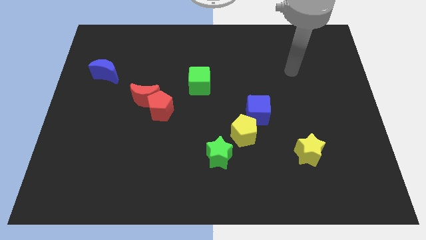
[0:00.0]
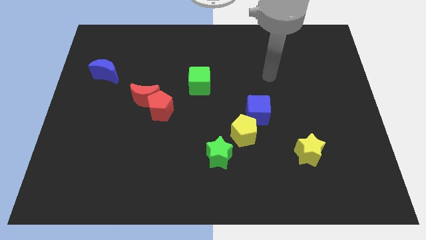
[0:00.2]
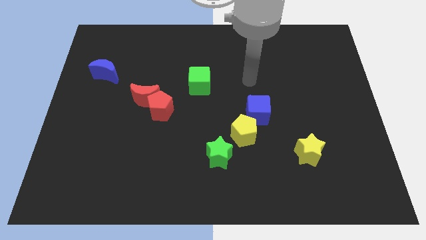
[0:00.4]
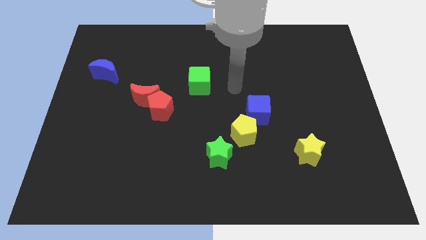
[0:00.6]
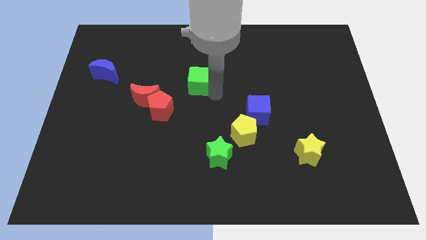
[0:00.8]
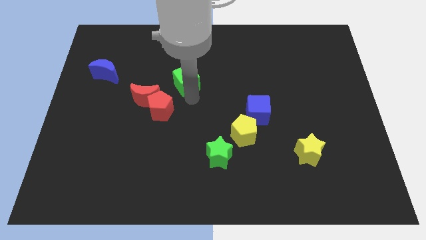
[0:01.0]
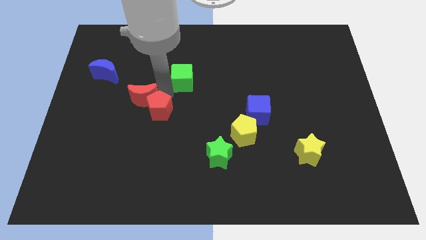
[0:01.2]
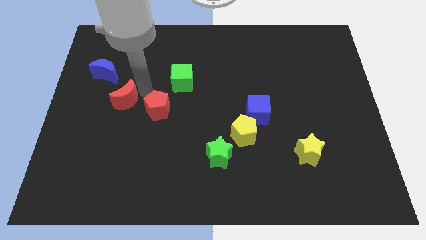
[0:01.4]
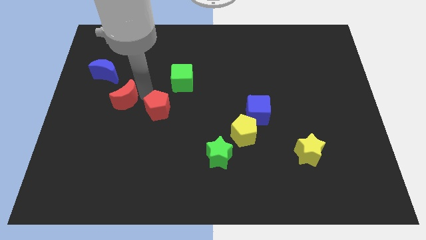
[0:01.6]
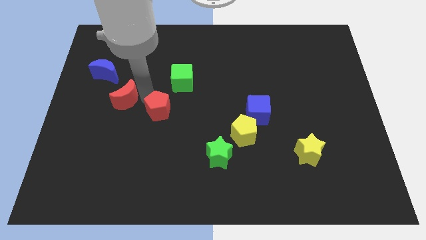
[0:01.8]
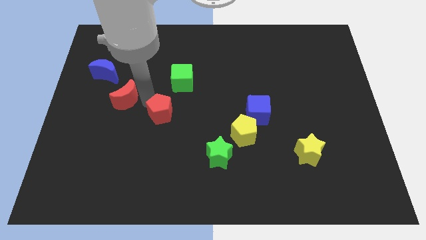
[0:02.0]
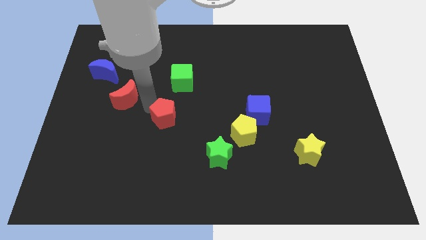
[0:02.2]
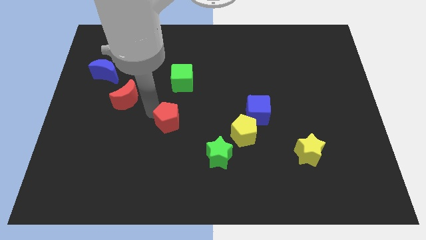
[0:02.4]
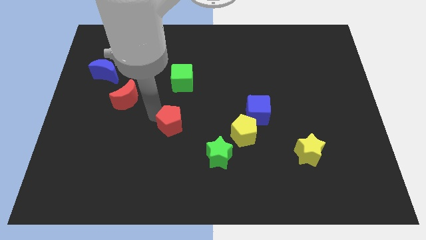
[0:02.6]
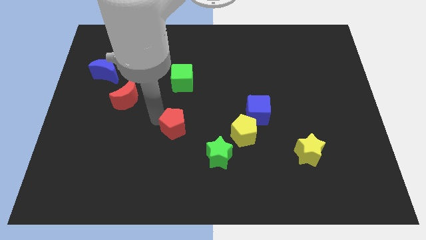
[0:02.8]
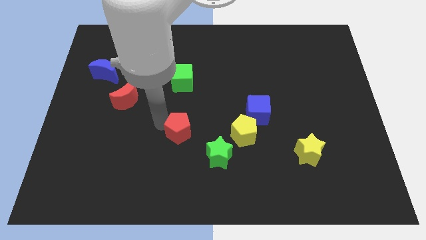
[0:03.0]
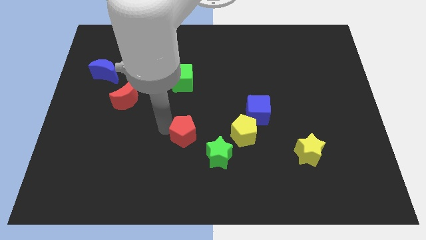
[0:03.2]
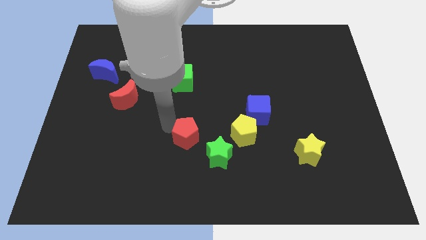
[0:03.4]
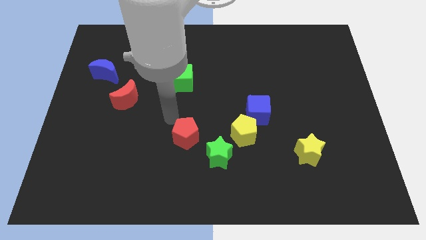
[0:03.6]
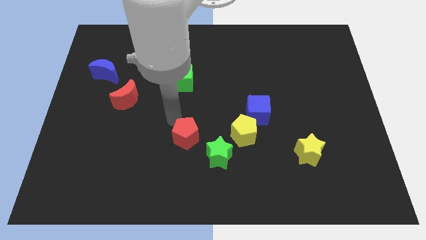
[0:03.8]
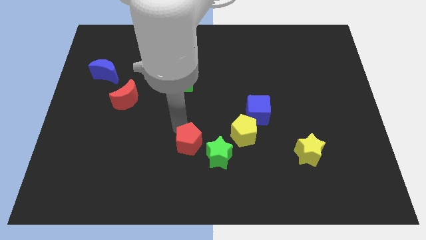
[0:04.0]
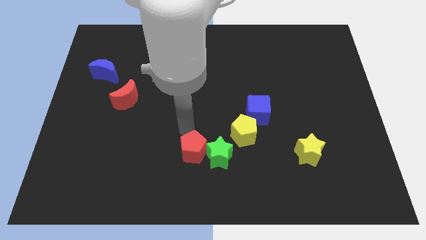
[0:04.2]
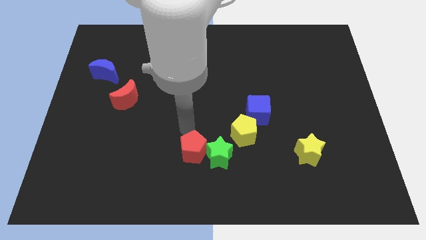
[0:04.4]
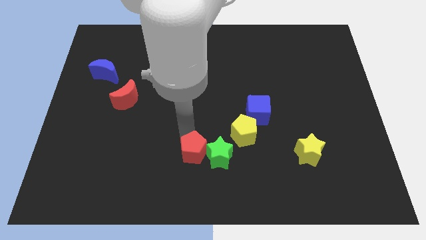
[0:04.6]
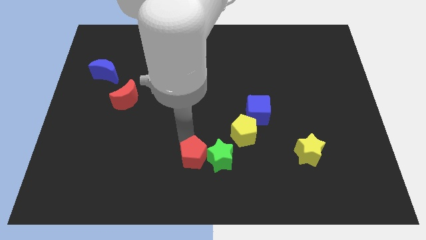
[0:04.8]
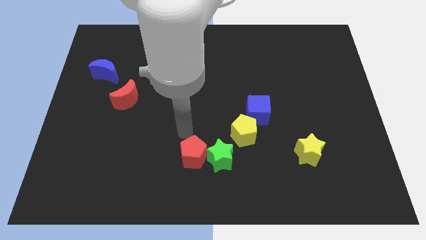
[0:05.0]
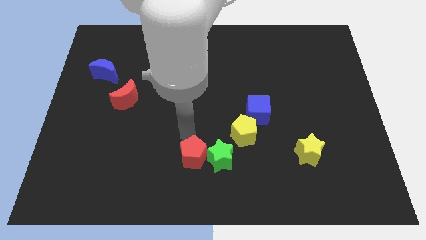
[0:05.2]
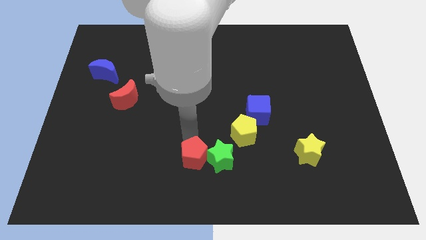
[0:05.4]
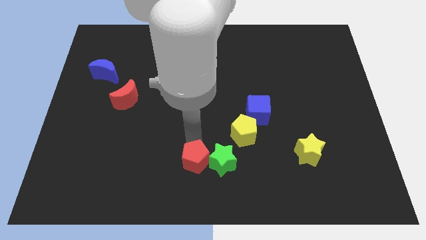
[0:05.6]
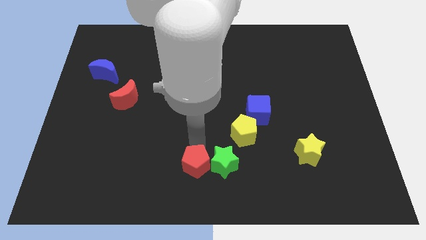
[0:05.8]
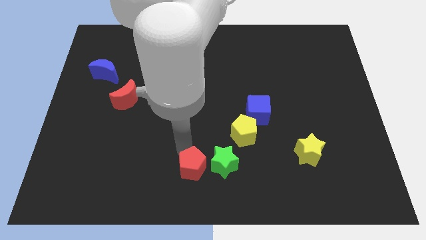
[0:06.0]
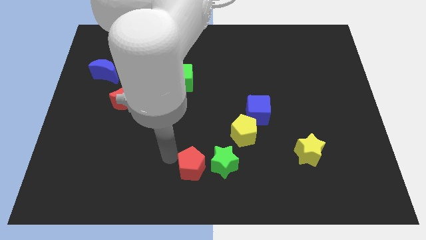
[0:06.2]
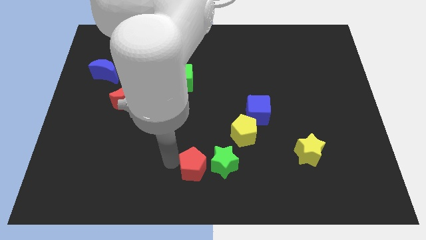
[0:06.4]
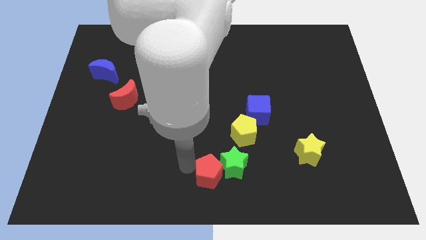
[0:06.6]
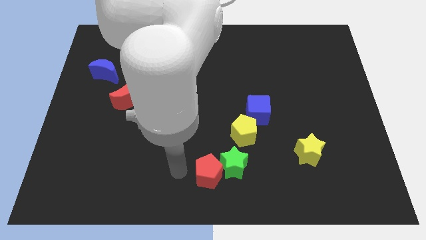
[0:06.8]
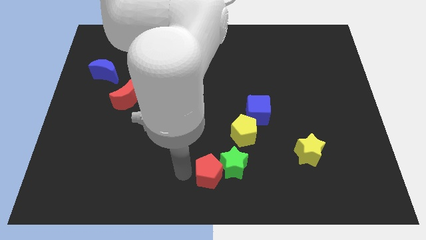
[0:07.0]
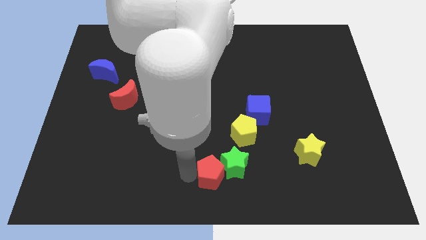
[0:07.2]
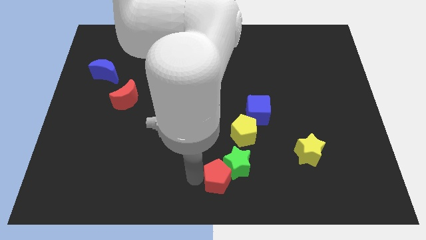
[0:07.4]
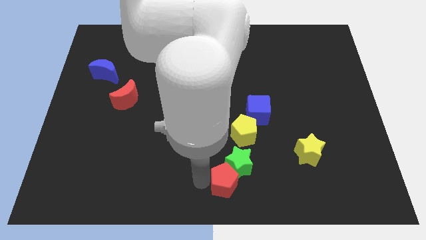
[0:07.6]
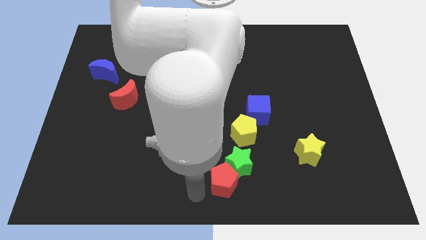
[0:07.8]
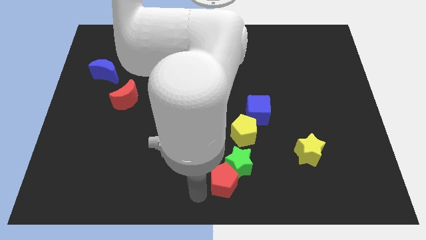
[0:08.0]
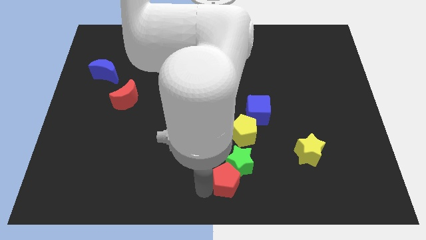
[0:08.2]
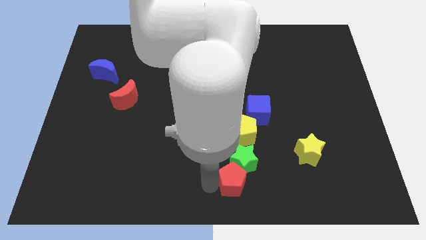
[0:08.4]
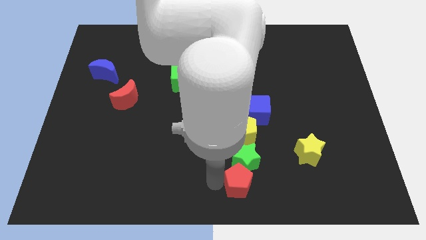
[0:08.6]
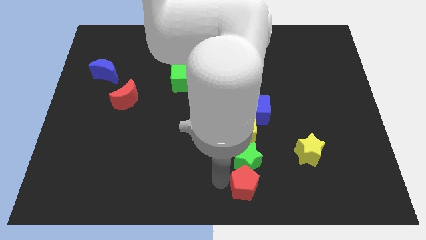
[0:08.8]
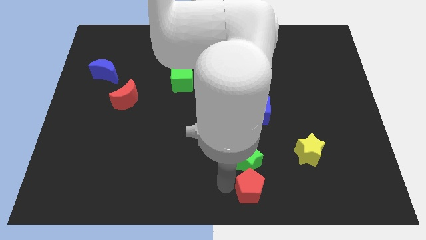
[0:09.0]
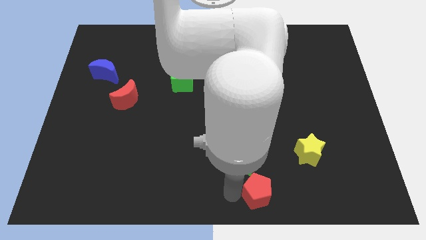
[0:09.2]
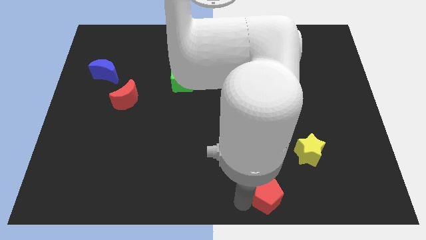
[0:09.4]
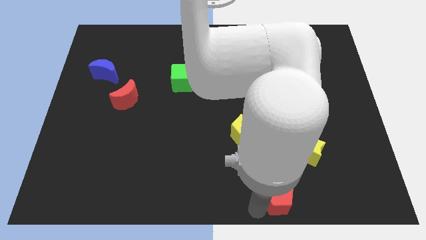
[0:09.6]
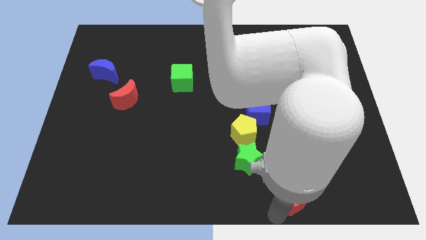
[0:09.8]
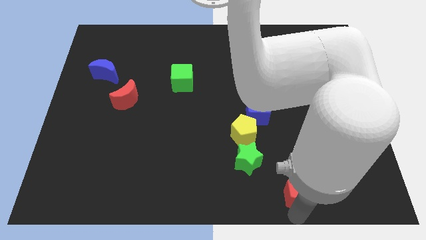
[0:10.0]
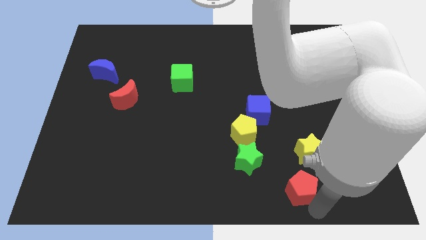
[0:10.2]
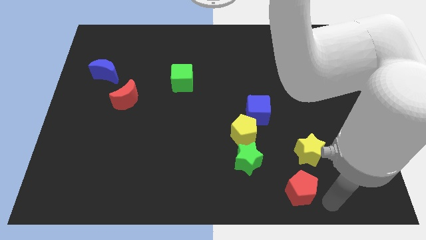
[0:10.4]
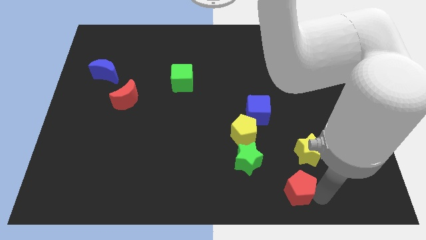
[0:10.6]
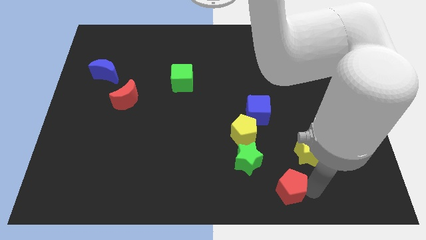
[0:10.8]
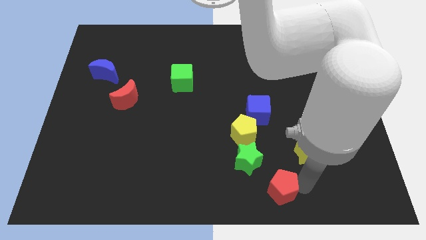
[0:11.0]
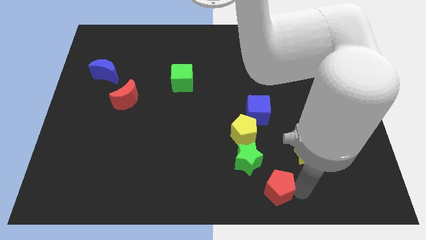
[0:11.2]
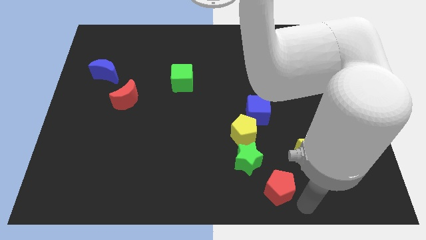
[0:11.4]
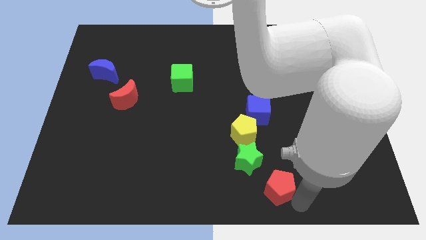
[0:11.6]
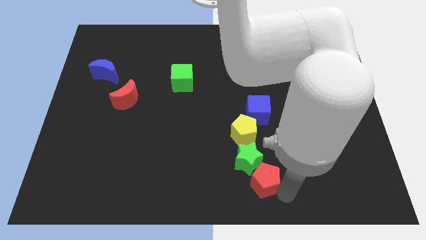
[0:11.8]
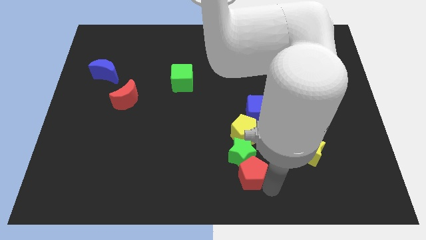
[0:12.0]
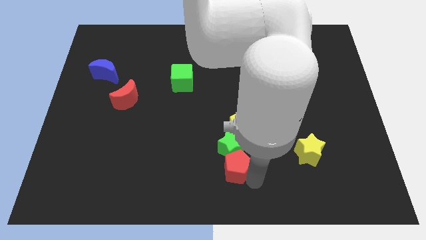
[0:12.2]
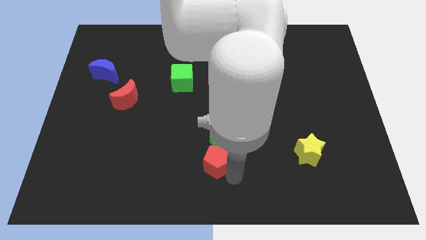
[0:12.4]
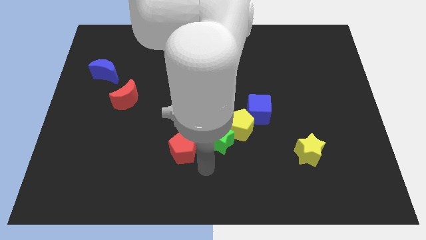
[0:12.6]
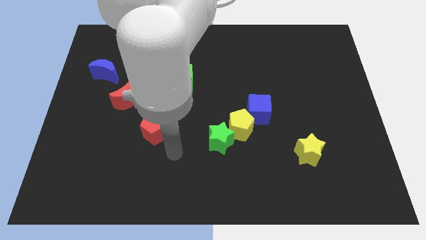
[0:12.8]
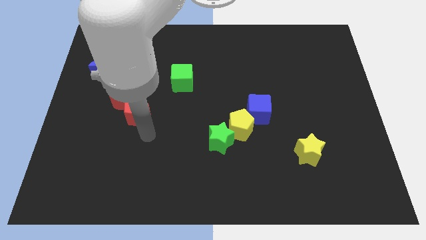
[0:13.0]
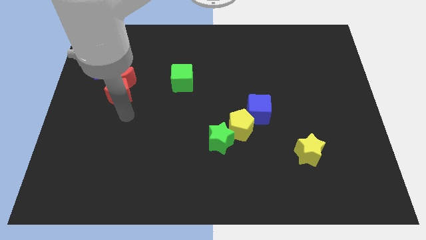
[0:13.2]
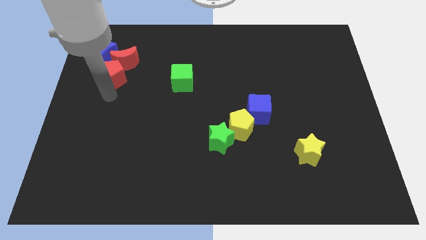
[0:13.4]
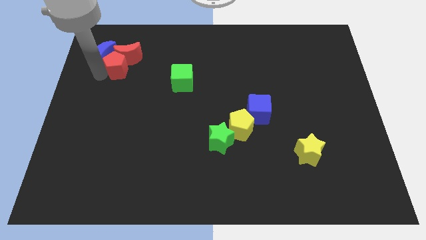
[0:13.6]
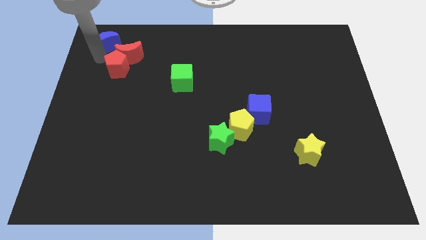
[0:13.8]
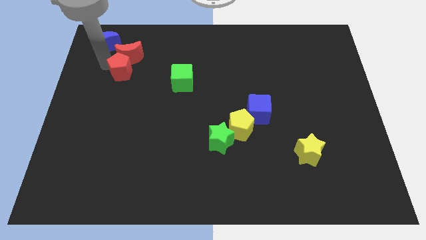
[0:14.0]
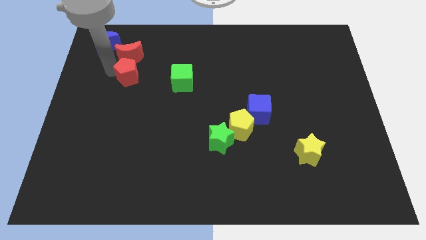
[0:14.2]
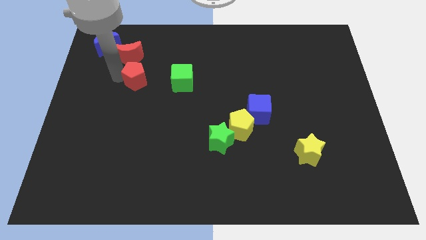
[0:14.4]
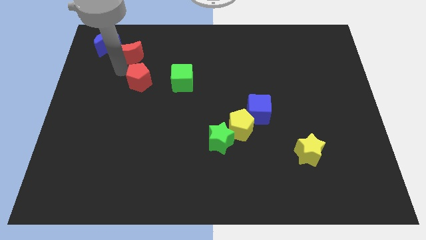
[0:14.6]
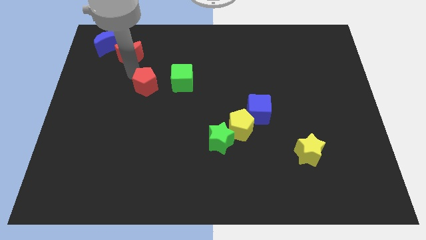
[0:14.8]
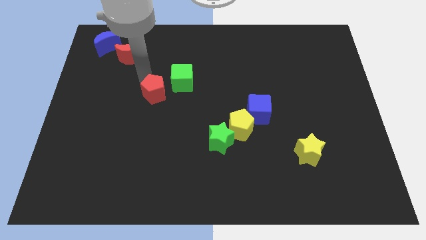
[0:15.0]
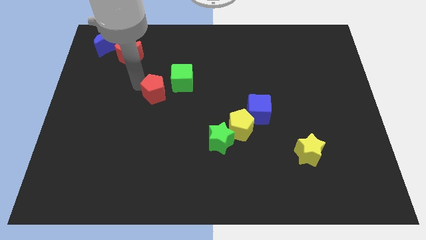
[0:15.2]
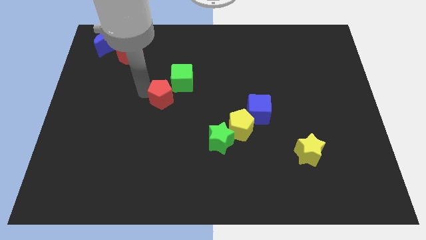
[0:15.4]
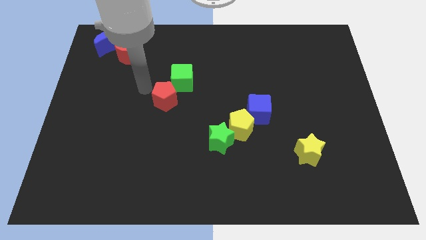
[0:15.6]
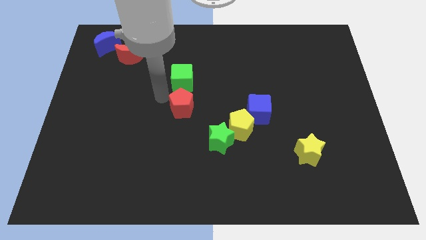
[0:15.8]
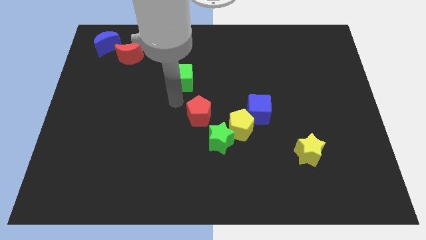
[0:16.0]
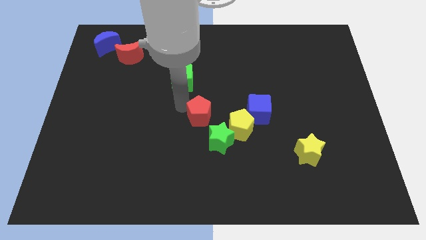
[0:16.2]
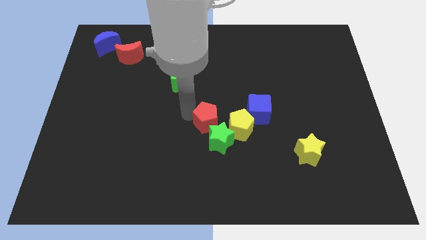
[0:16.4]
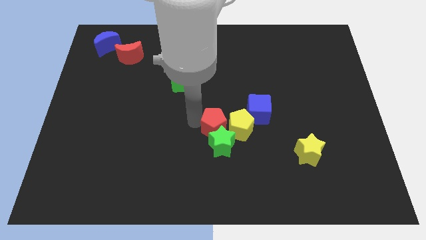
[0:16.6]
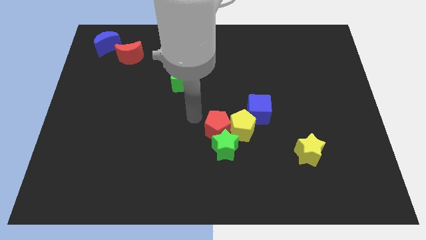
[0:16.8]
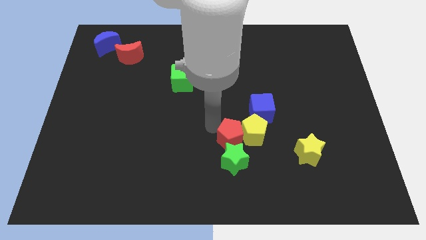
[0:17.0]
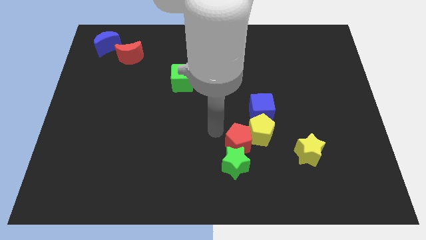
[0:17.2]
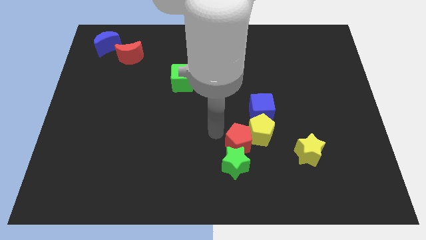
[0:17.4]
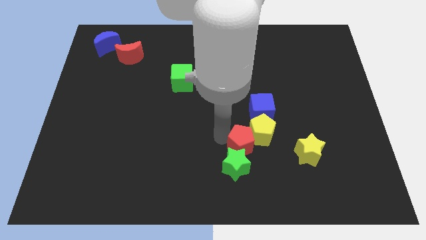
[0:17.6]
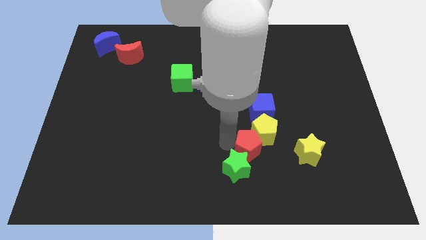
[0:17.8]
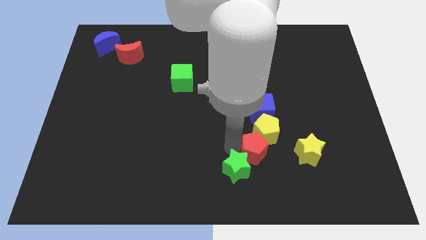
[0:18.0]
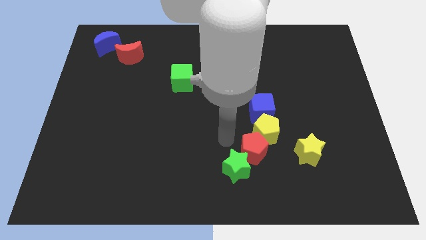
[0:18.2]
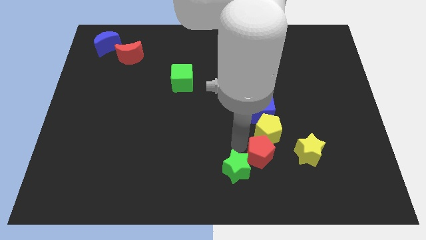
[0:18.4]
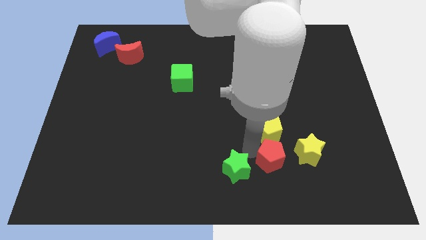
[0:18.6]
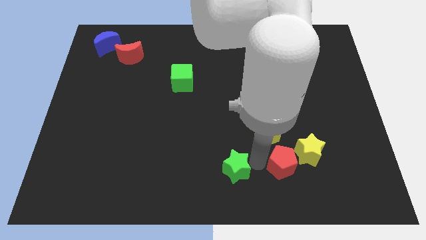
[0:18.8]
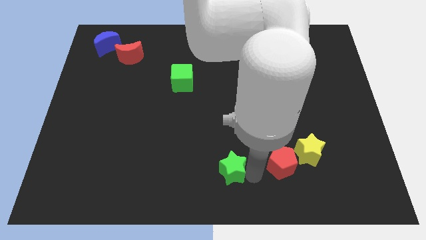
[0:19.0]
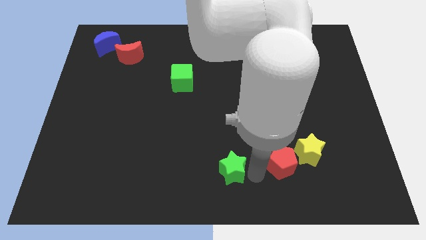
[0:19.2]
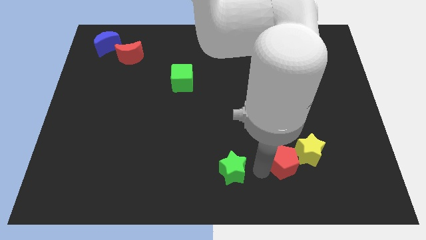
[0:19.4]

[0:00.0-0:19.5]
move the red pentagon close to the yellow star
